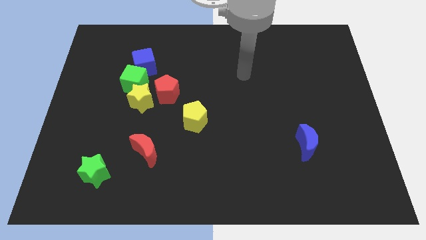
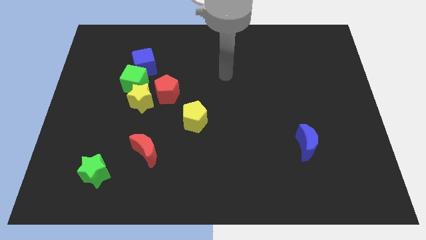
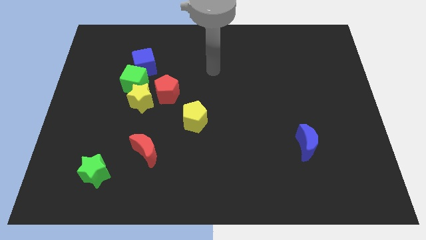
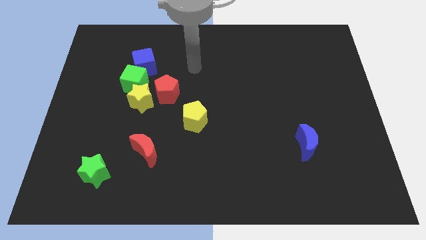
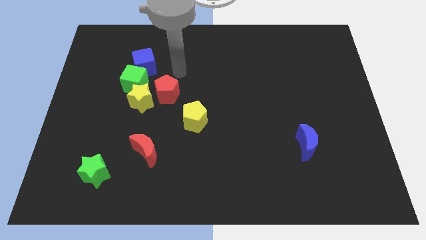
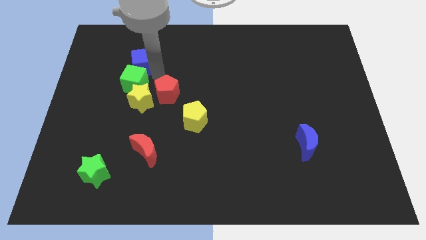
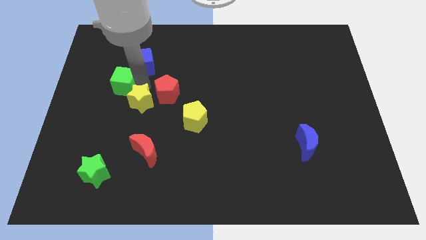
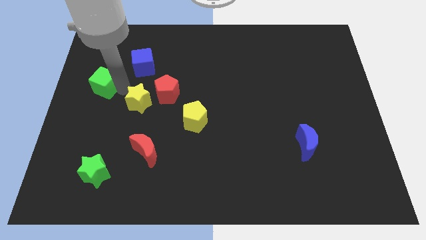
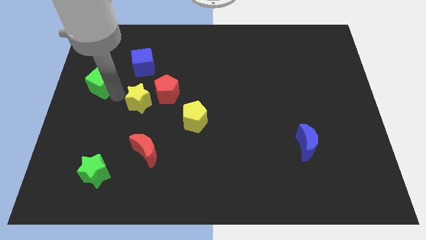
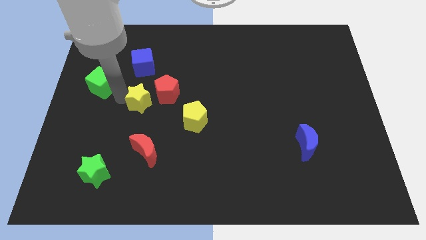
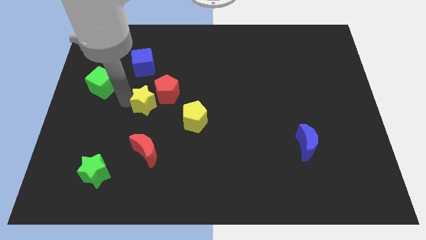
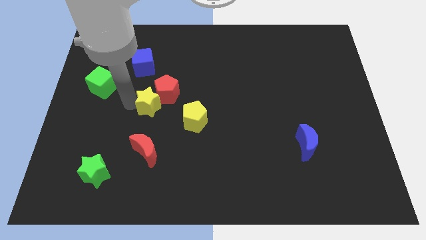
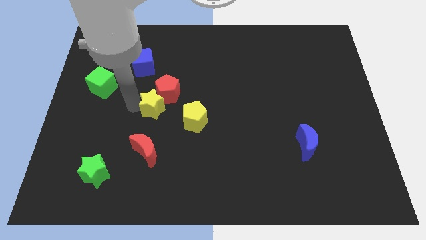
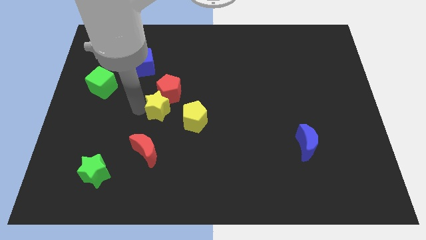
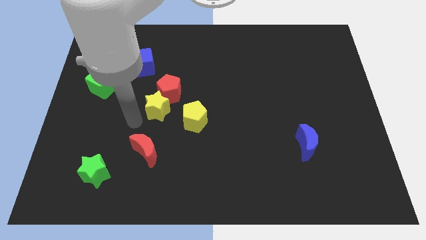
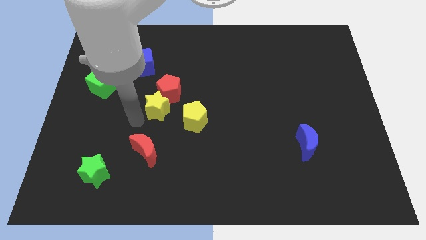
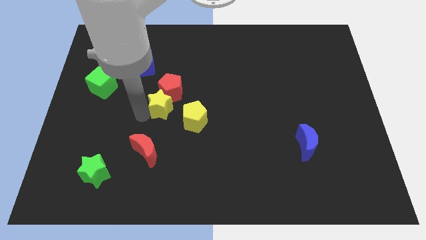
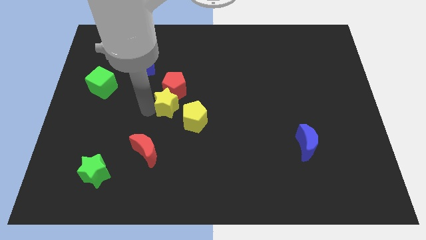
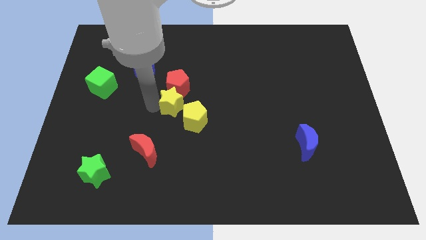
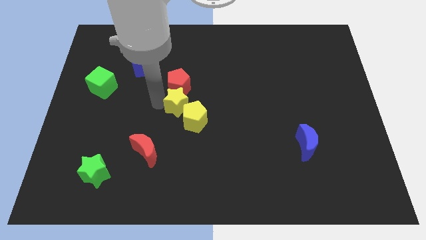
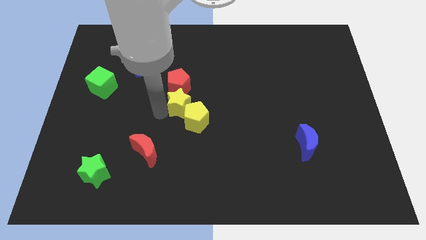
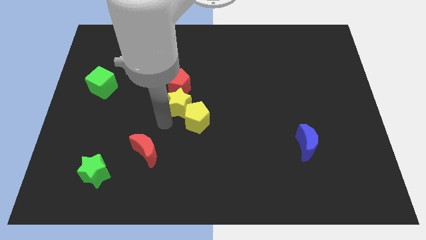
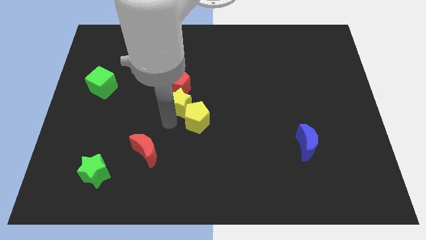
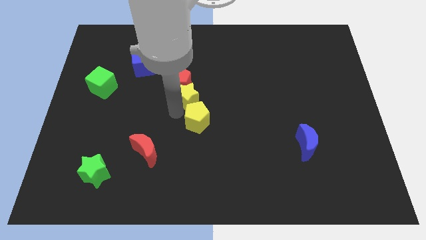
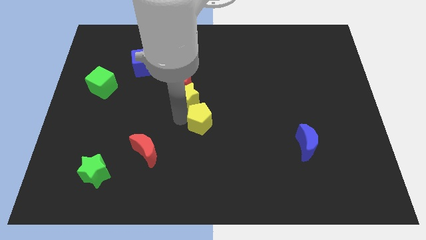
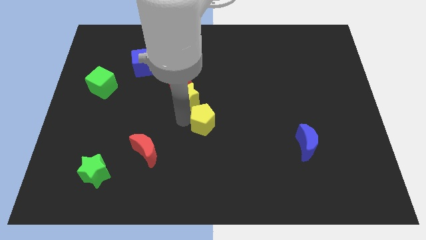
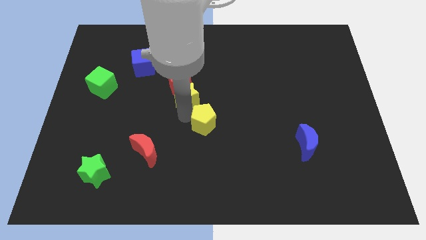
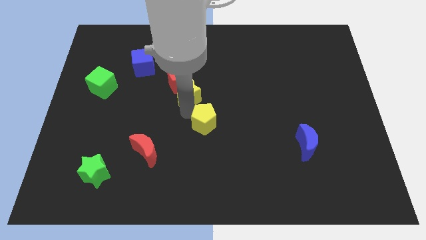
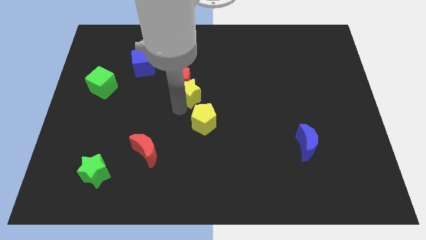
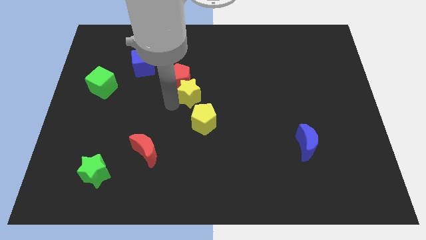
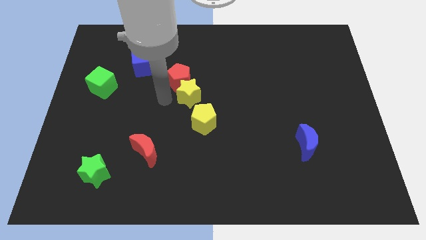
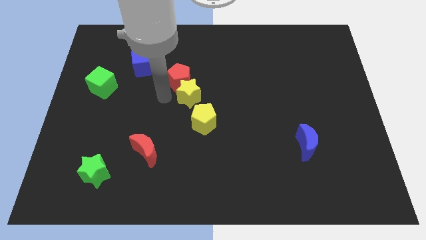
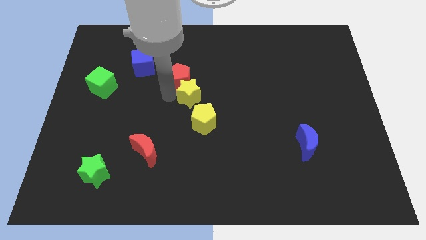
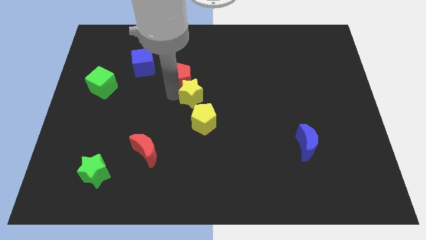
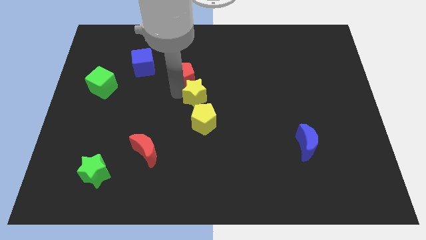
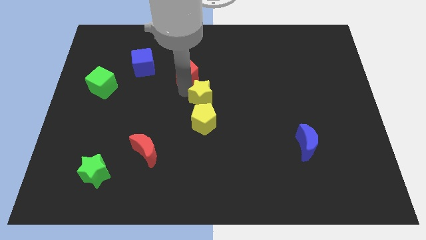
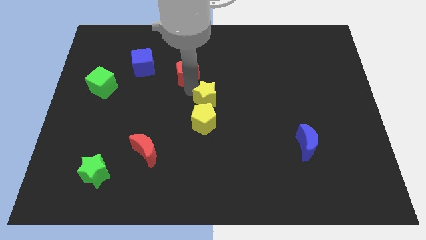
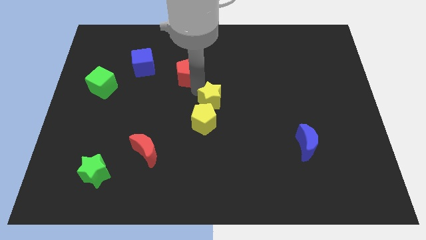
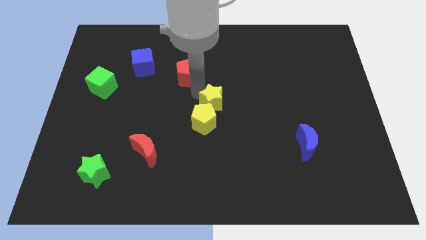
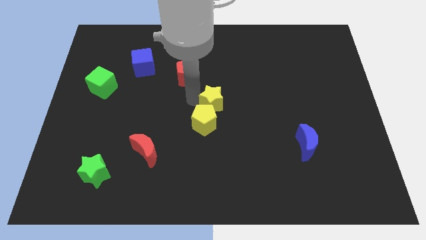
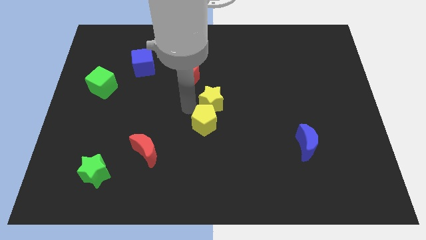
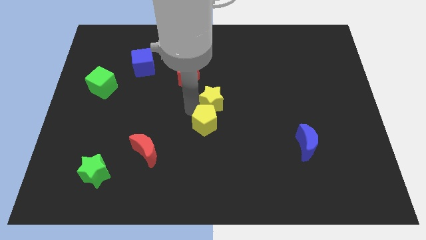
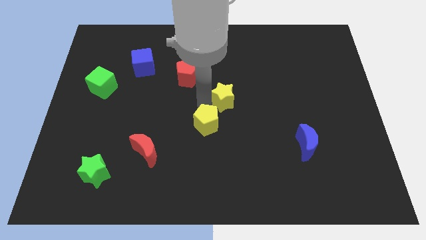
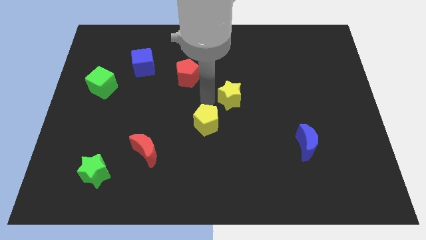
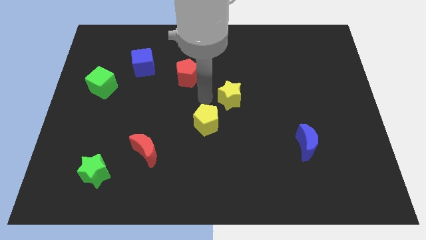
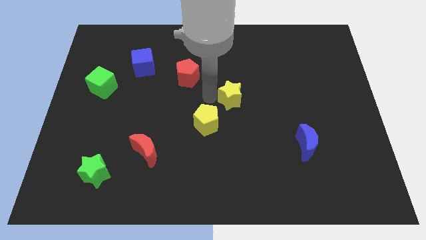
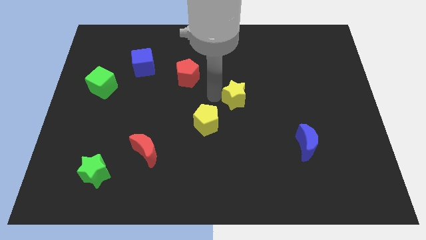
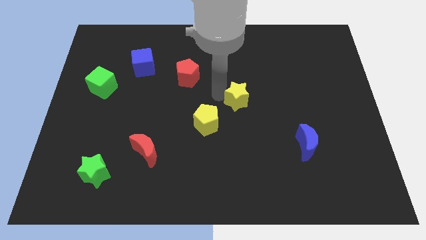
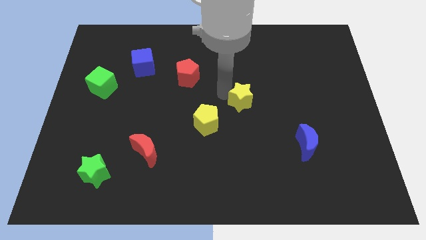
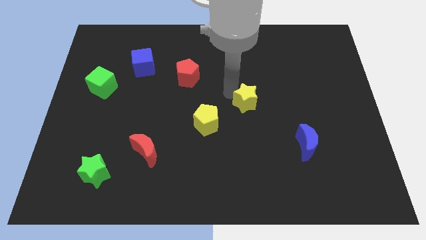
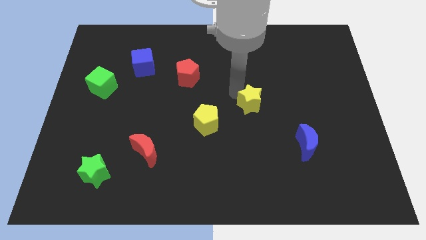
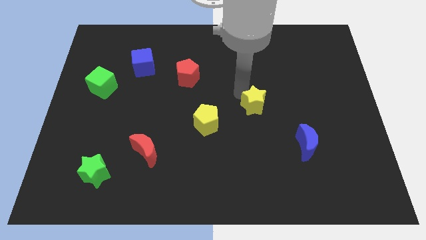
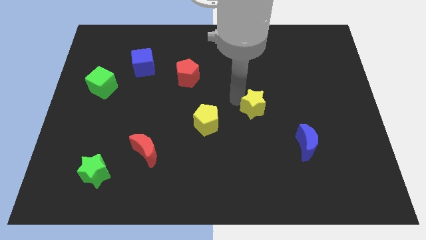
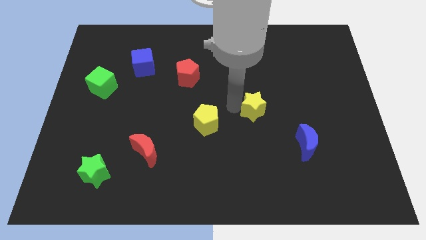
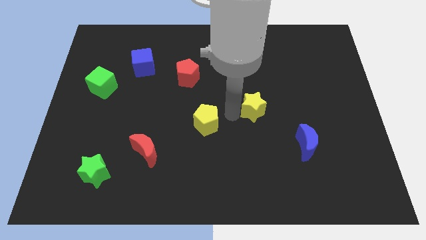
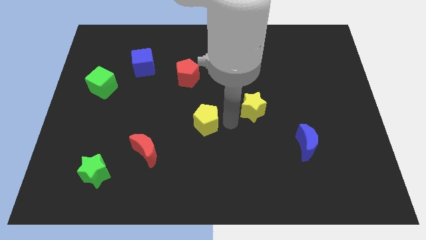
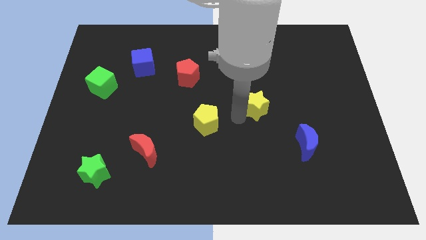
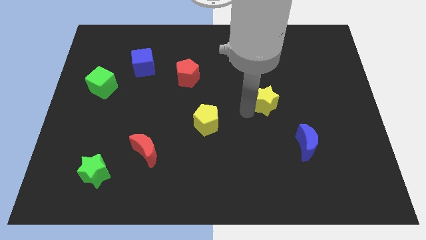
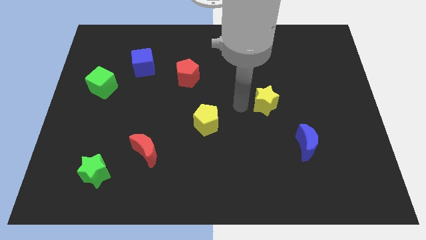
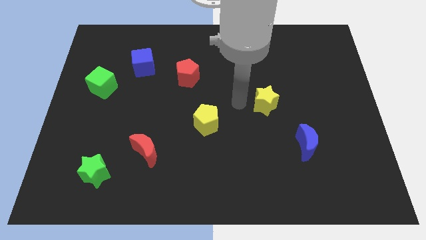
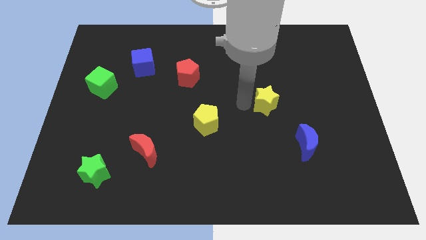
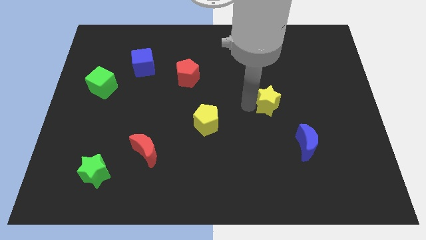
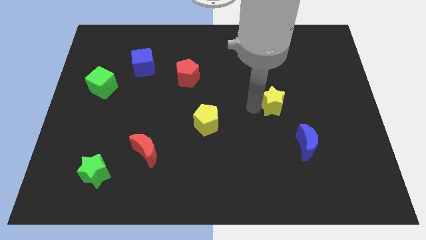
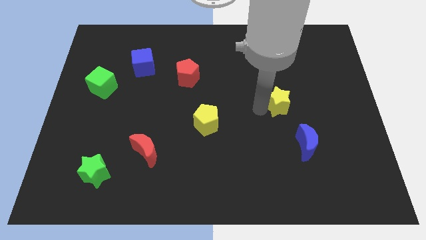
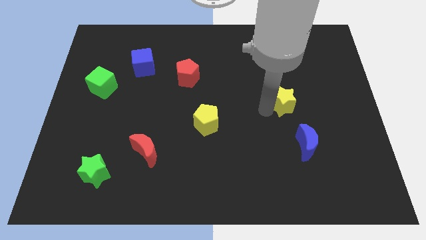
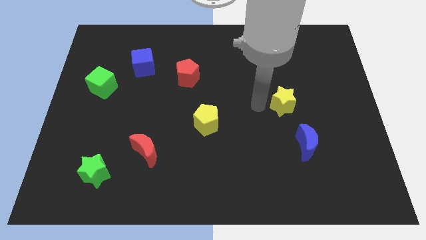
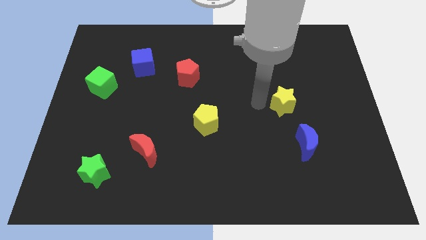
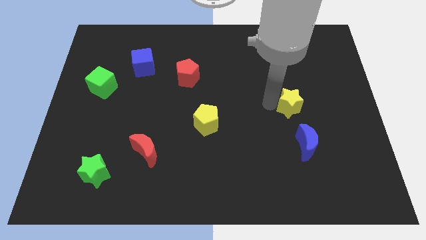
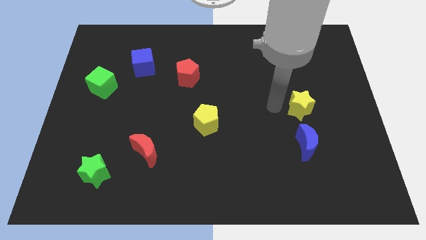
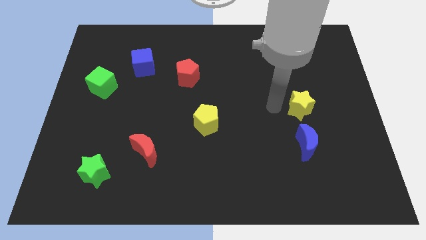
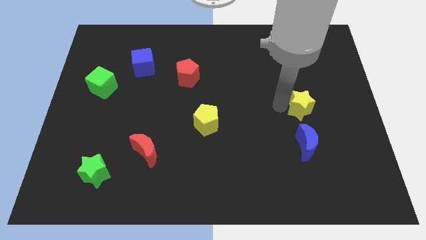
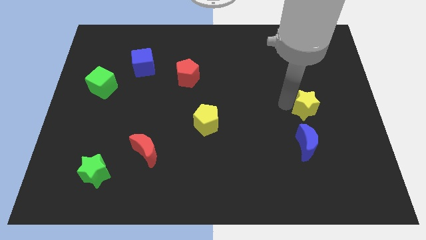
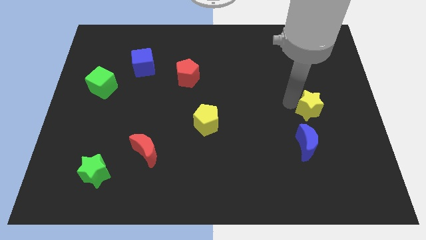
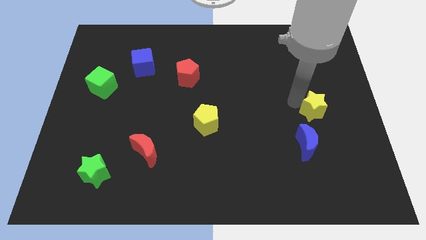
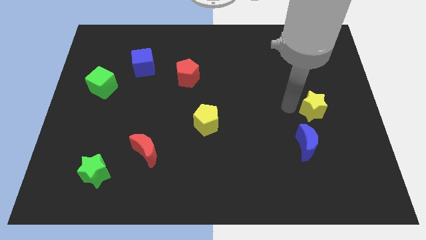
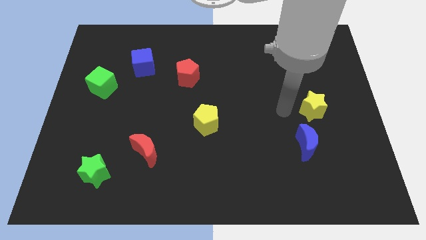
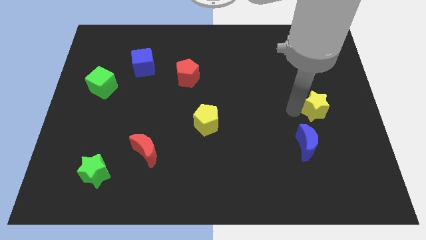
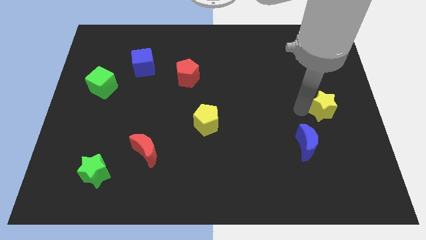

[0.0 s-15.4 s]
move the yellow star to the right side of the board
